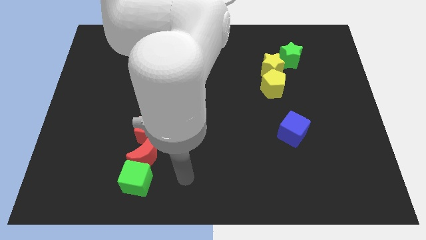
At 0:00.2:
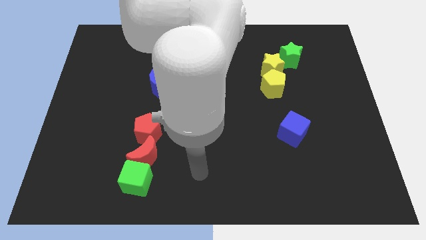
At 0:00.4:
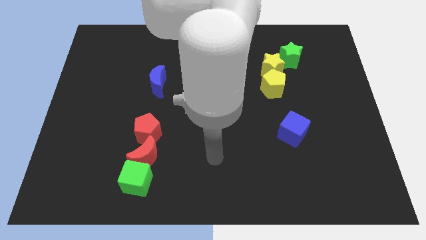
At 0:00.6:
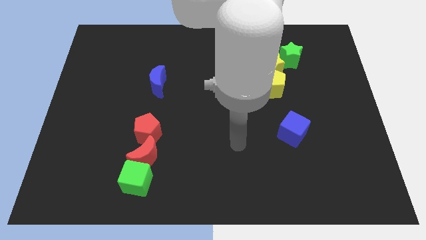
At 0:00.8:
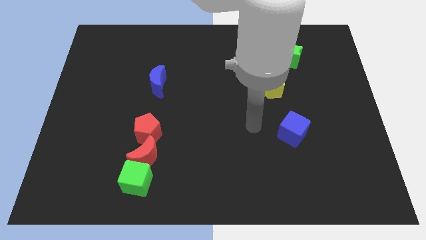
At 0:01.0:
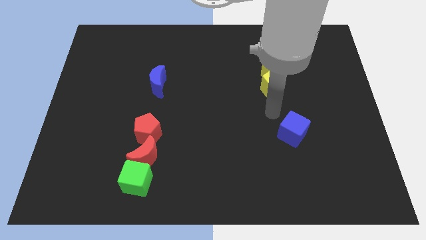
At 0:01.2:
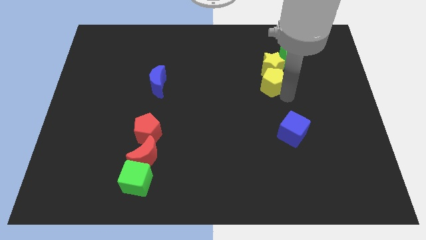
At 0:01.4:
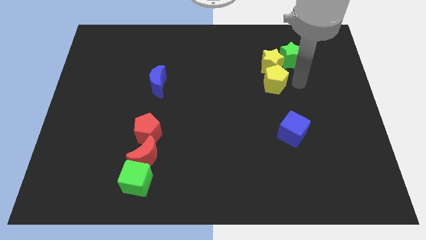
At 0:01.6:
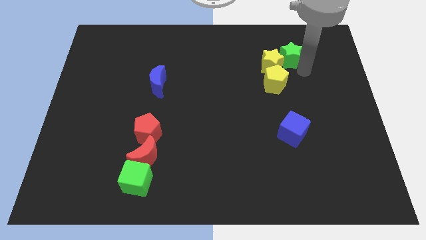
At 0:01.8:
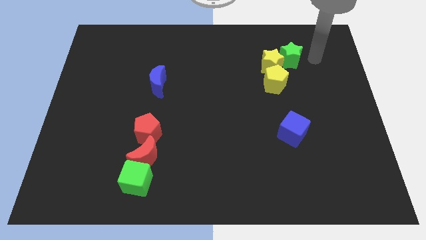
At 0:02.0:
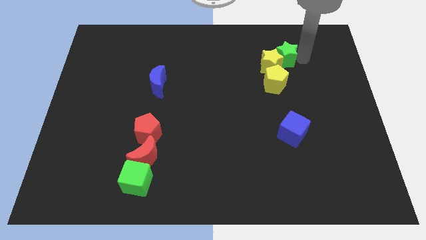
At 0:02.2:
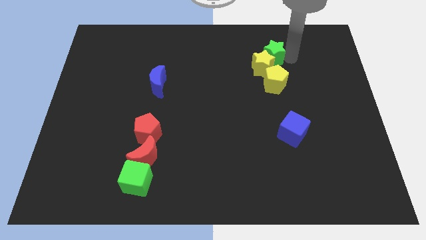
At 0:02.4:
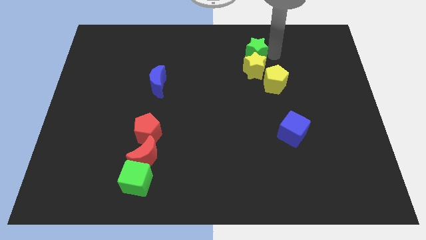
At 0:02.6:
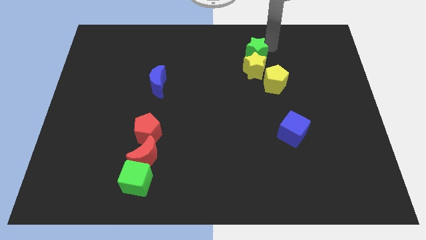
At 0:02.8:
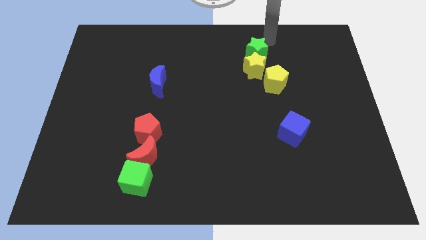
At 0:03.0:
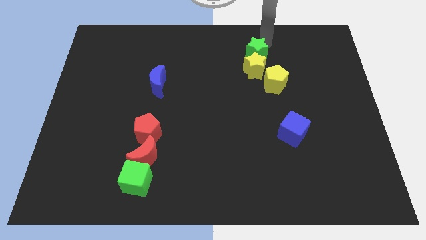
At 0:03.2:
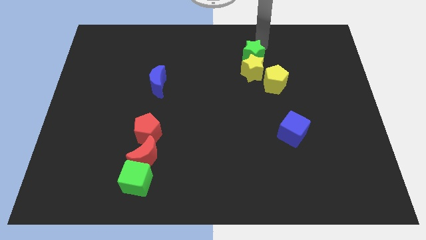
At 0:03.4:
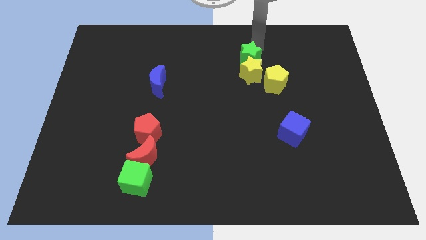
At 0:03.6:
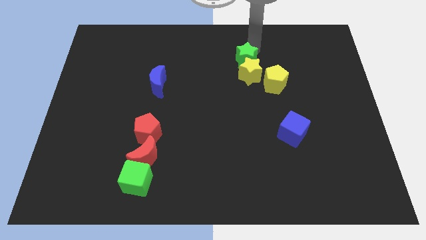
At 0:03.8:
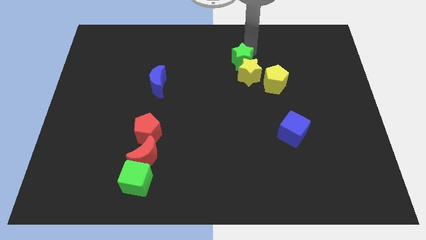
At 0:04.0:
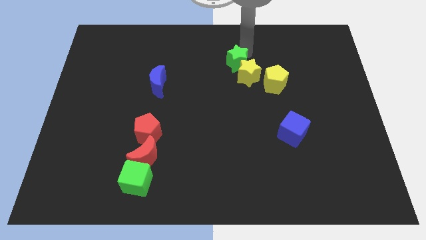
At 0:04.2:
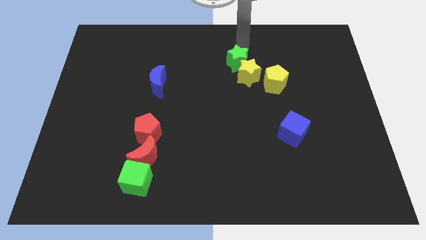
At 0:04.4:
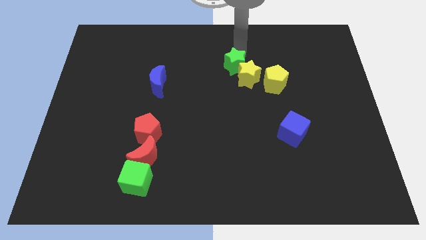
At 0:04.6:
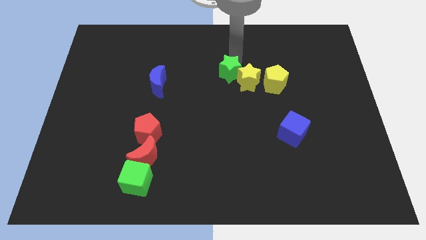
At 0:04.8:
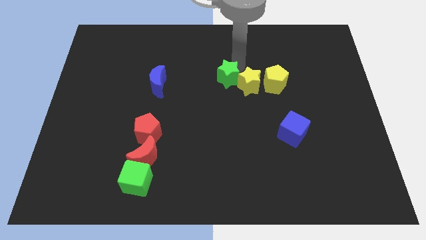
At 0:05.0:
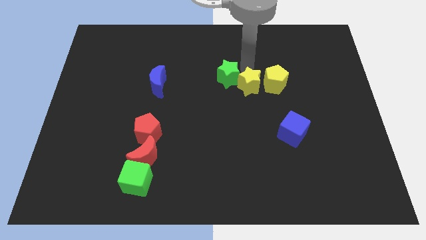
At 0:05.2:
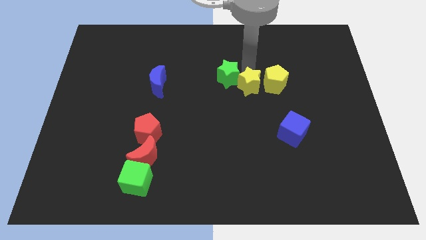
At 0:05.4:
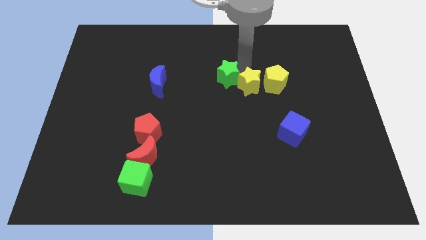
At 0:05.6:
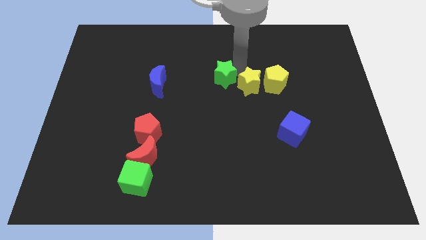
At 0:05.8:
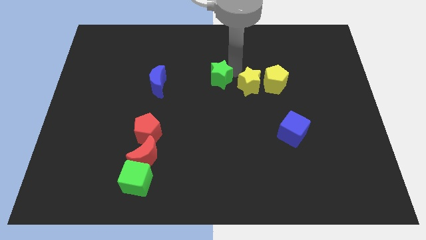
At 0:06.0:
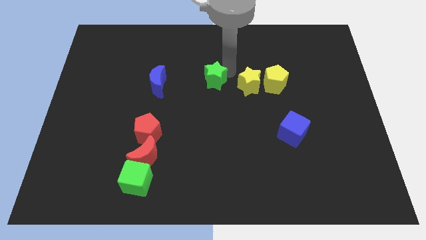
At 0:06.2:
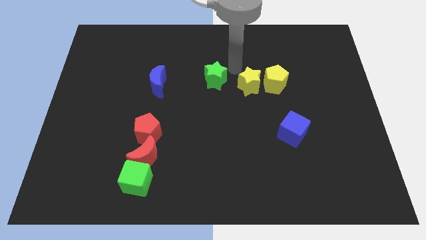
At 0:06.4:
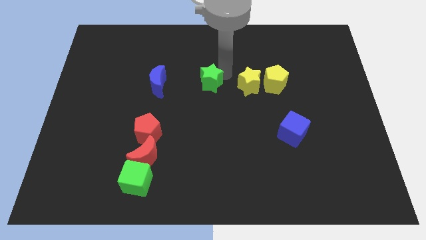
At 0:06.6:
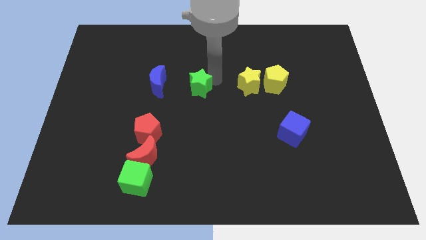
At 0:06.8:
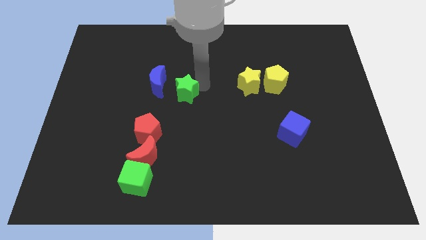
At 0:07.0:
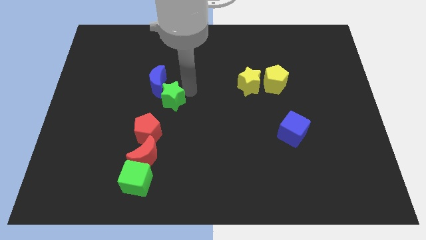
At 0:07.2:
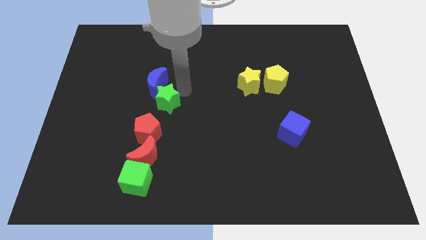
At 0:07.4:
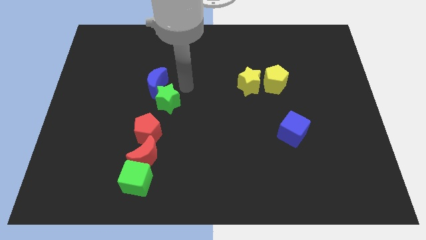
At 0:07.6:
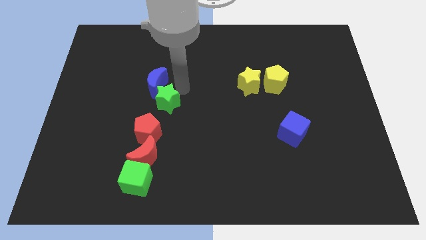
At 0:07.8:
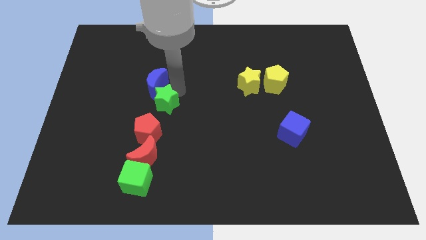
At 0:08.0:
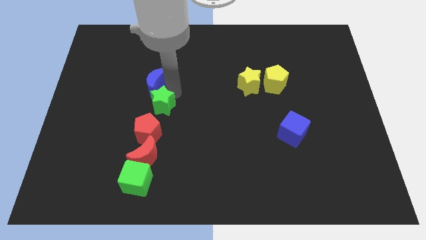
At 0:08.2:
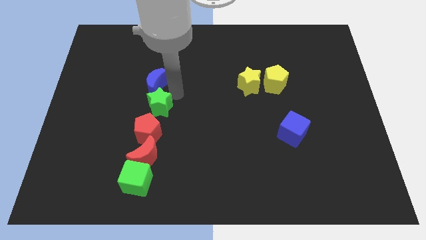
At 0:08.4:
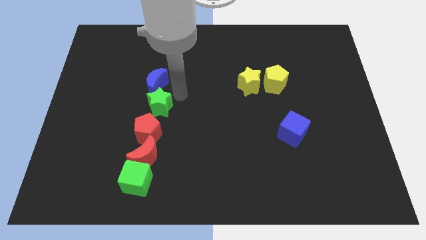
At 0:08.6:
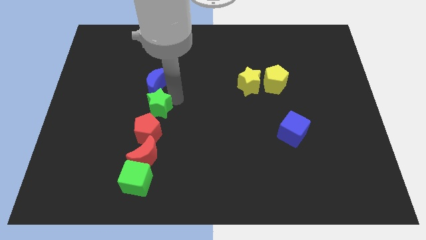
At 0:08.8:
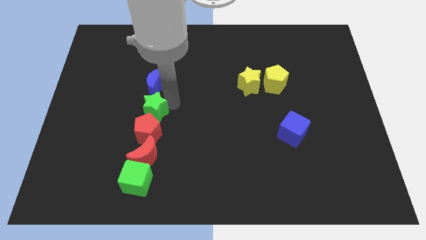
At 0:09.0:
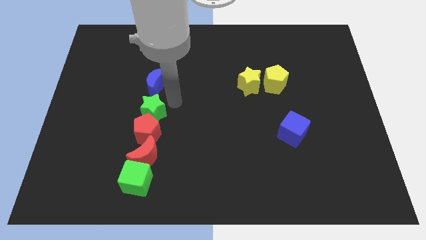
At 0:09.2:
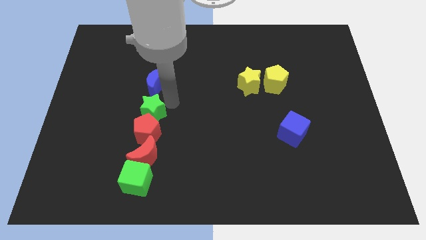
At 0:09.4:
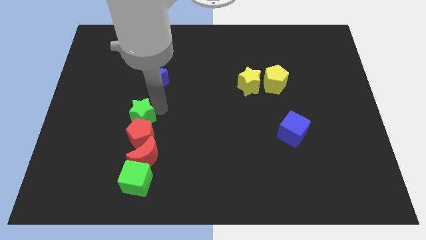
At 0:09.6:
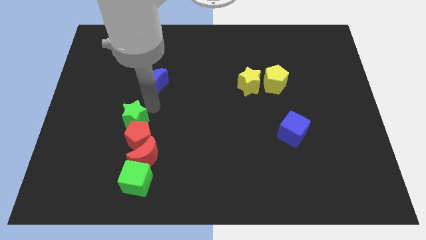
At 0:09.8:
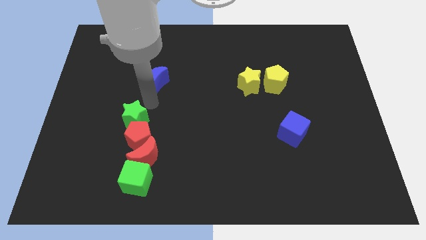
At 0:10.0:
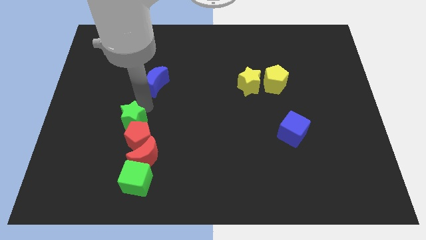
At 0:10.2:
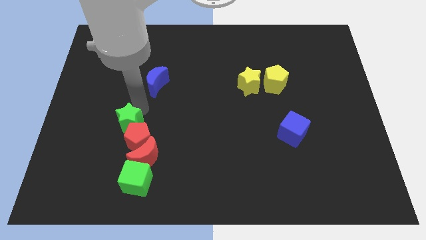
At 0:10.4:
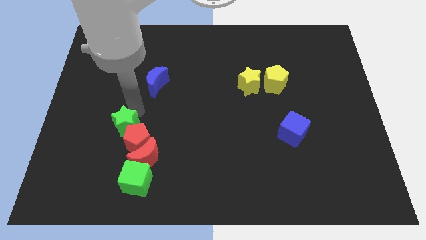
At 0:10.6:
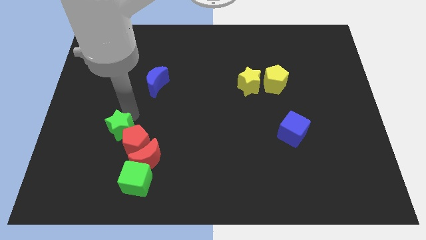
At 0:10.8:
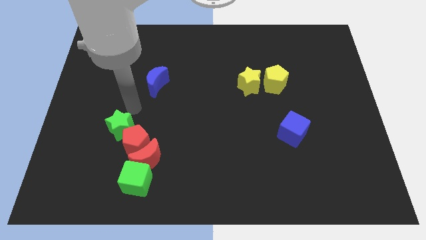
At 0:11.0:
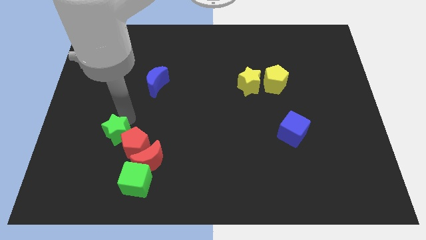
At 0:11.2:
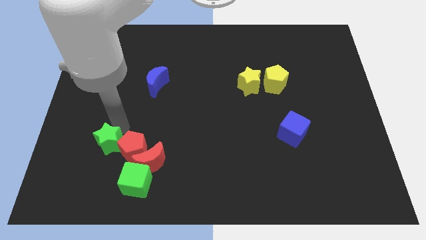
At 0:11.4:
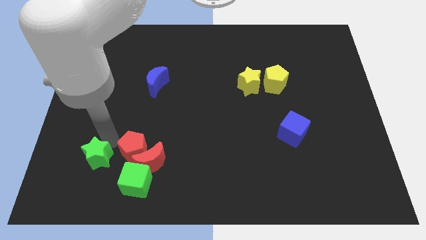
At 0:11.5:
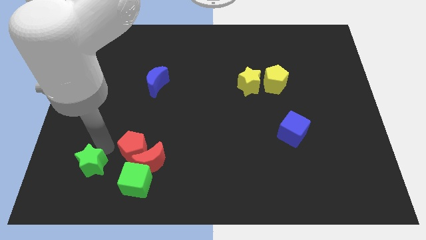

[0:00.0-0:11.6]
slide the green star just left of the green cube
